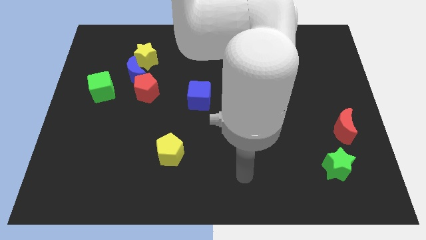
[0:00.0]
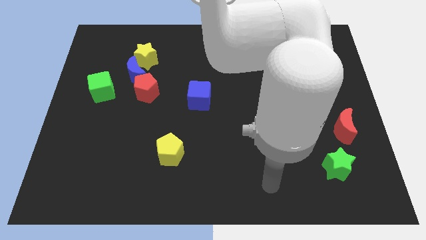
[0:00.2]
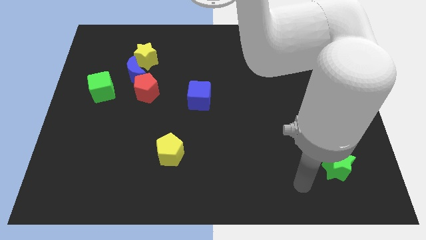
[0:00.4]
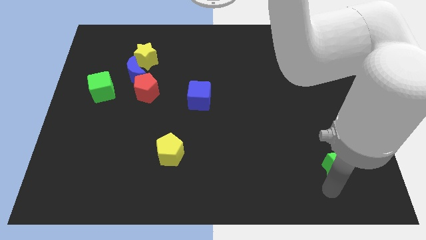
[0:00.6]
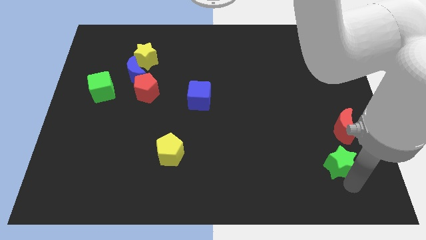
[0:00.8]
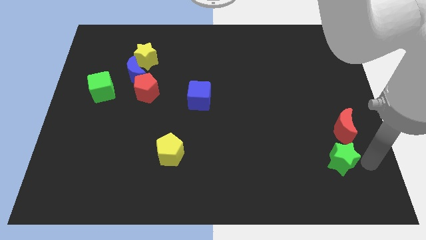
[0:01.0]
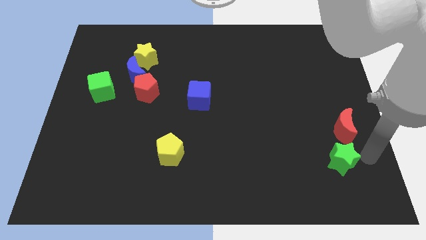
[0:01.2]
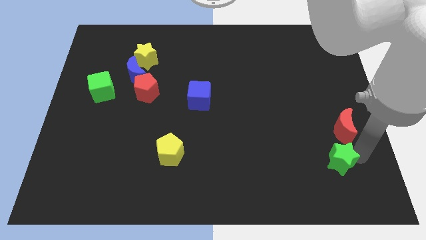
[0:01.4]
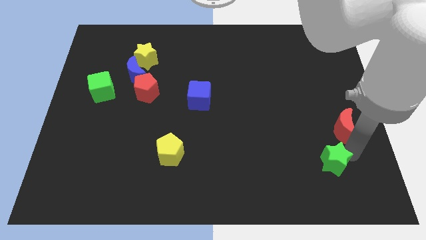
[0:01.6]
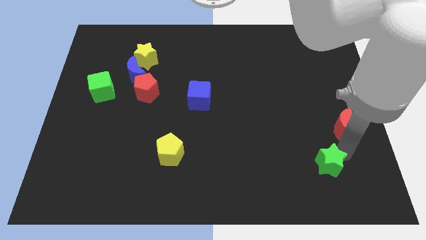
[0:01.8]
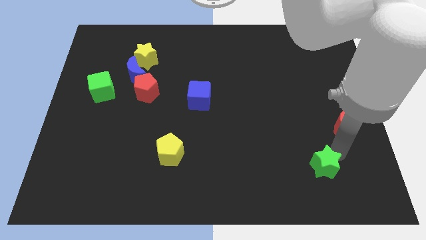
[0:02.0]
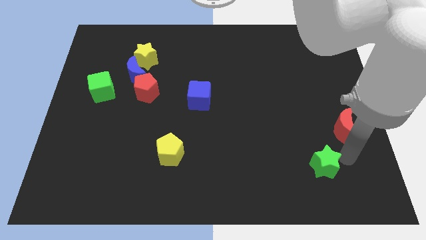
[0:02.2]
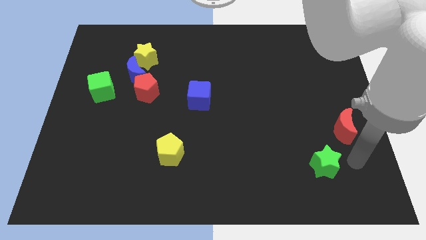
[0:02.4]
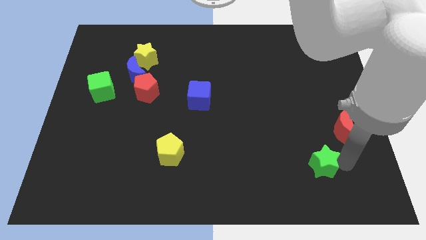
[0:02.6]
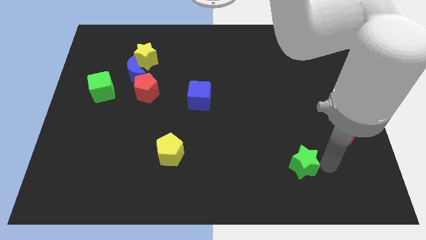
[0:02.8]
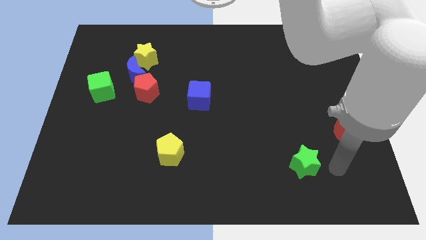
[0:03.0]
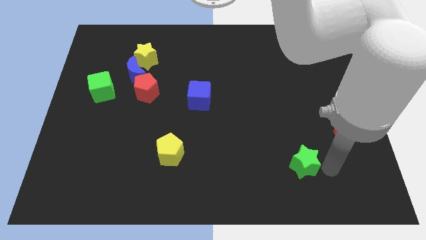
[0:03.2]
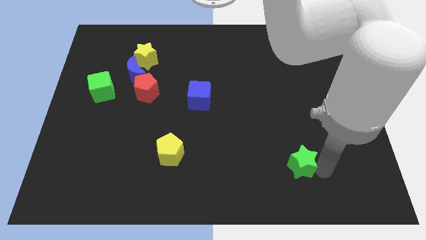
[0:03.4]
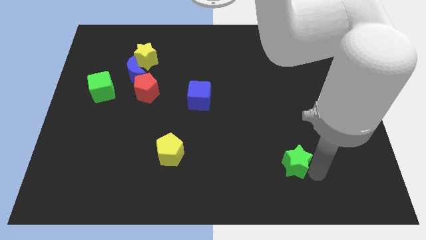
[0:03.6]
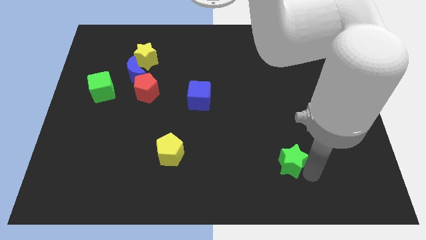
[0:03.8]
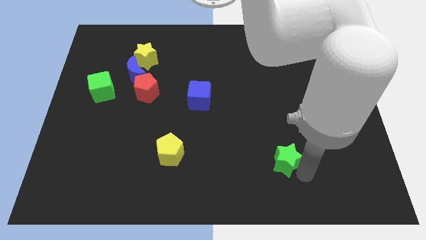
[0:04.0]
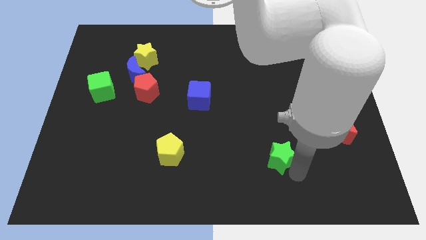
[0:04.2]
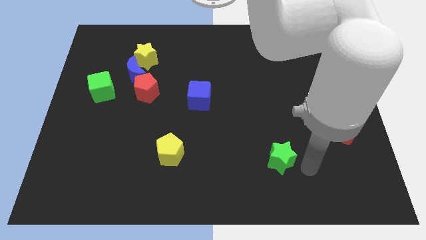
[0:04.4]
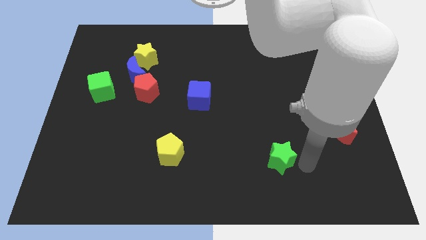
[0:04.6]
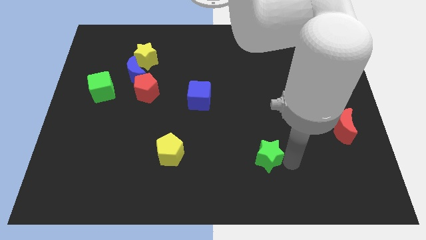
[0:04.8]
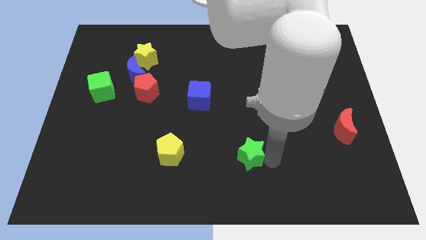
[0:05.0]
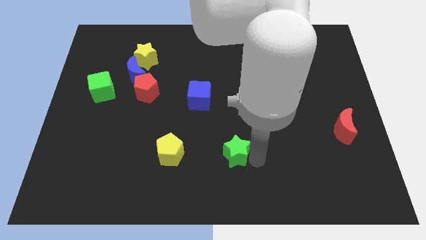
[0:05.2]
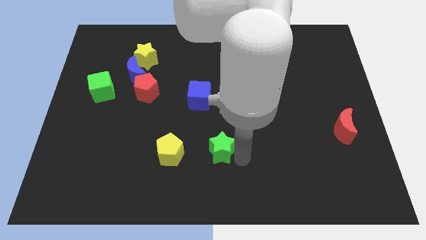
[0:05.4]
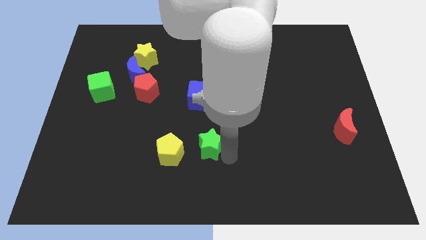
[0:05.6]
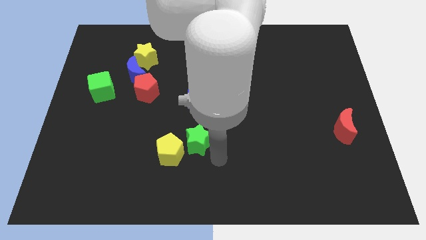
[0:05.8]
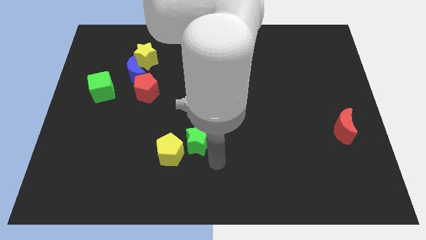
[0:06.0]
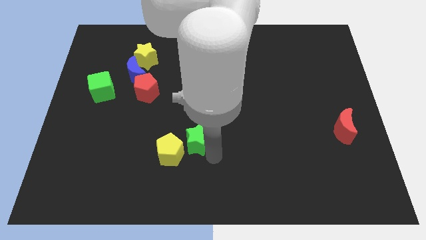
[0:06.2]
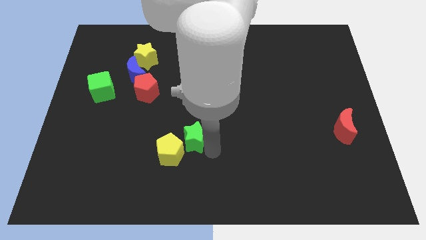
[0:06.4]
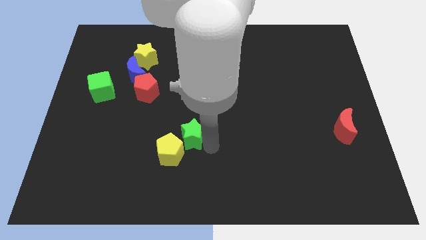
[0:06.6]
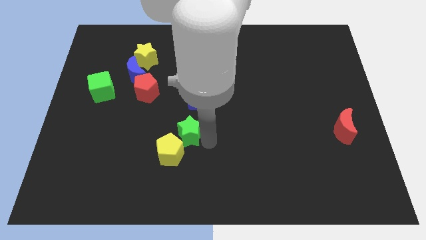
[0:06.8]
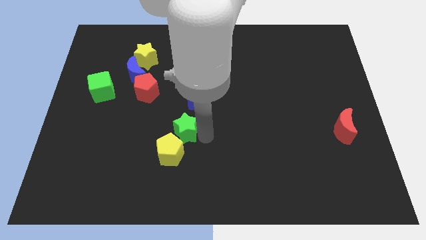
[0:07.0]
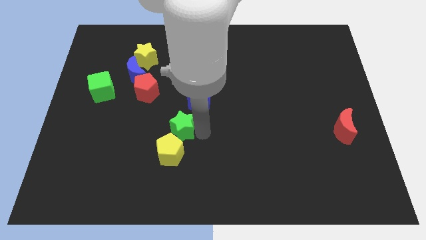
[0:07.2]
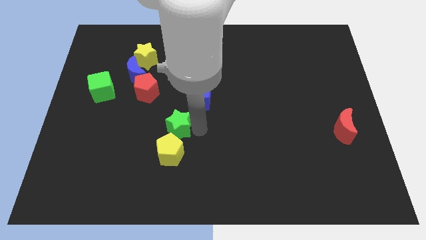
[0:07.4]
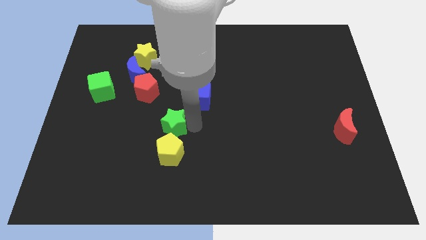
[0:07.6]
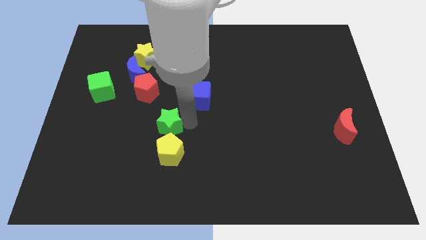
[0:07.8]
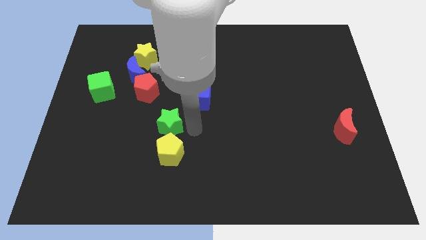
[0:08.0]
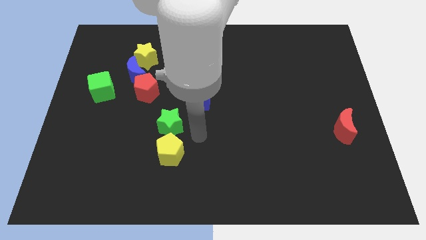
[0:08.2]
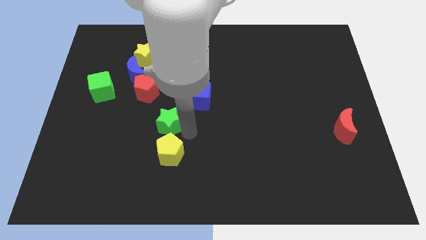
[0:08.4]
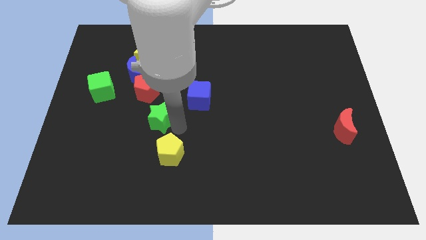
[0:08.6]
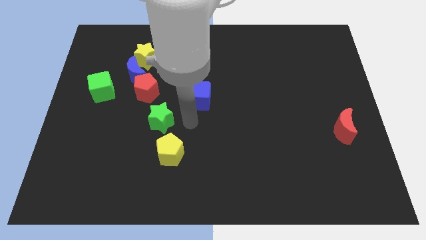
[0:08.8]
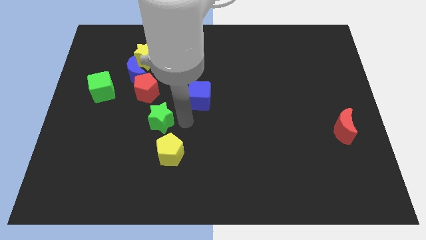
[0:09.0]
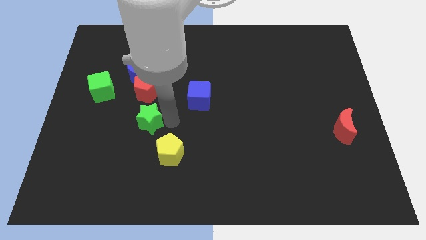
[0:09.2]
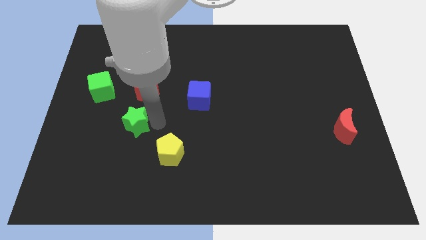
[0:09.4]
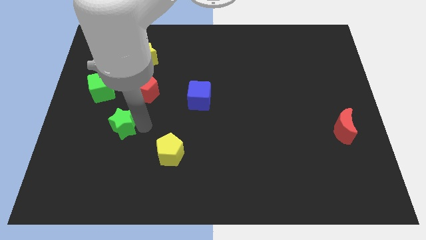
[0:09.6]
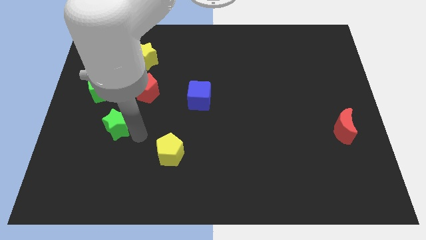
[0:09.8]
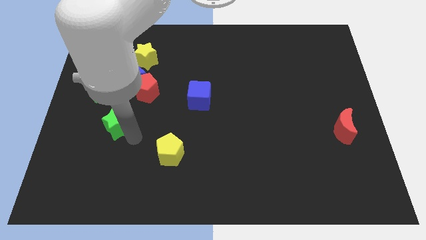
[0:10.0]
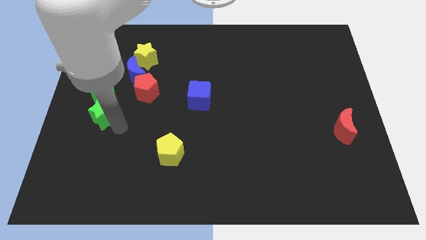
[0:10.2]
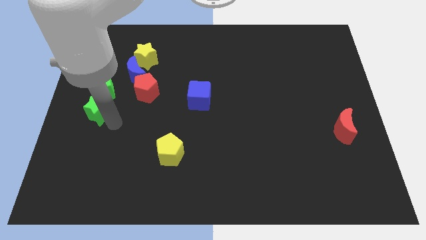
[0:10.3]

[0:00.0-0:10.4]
slide the green star to the center left

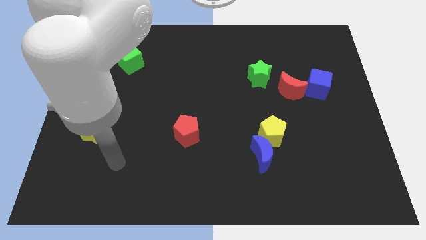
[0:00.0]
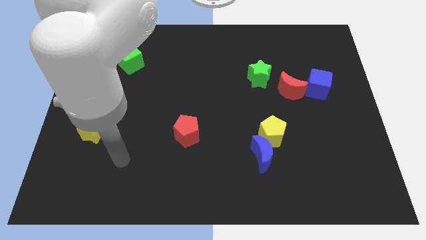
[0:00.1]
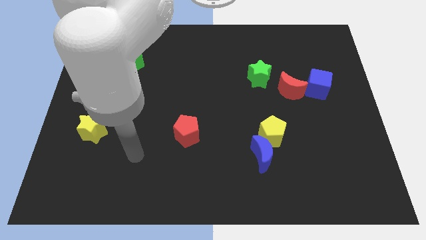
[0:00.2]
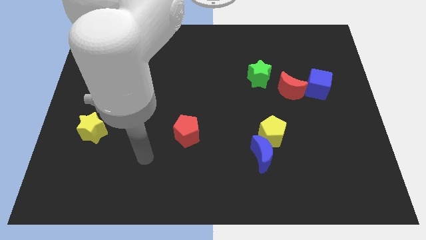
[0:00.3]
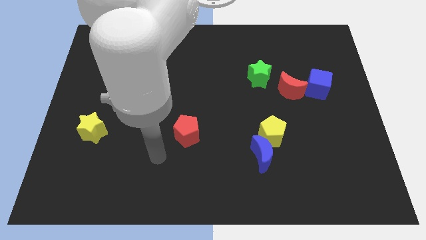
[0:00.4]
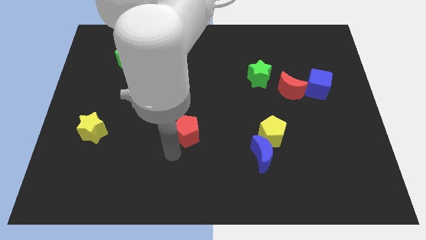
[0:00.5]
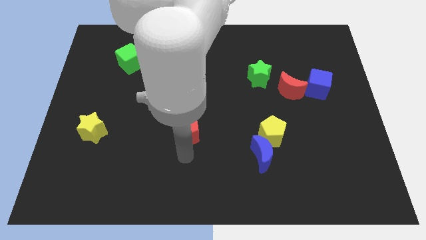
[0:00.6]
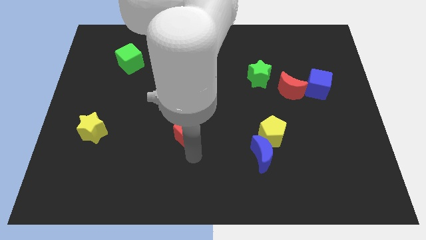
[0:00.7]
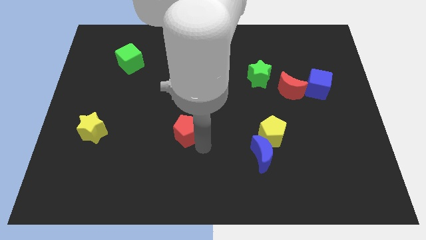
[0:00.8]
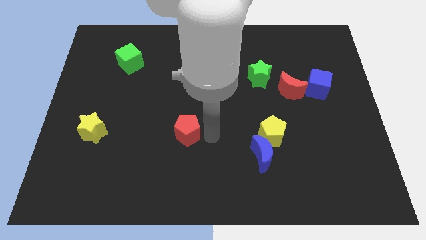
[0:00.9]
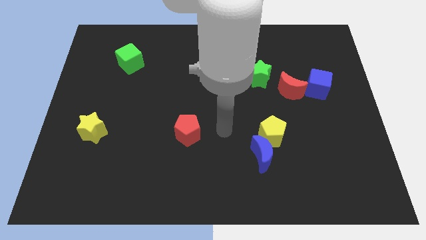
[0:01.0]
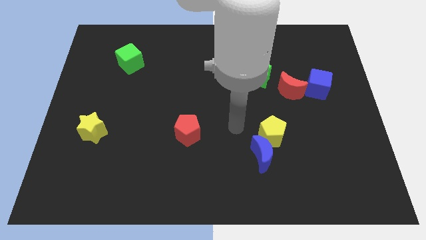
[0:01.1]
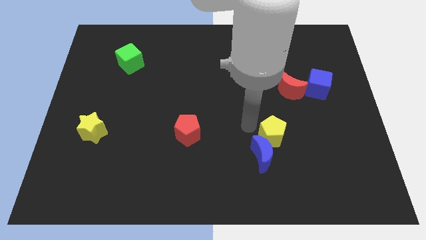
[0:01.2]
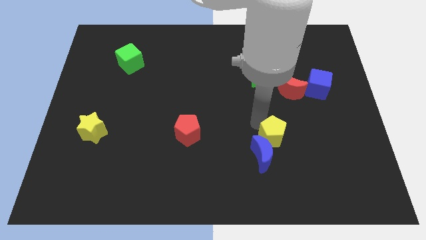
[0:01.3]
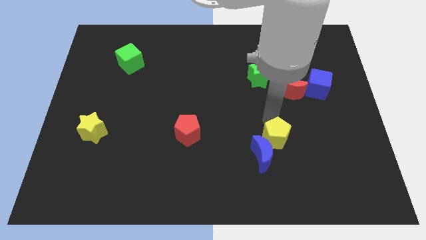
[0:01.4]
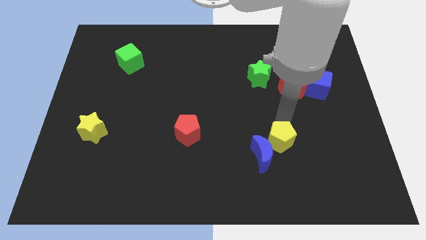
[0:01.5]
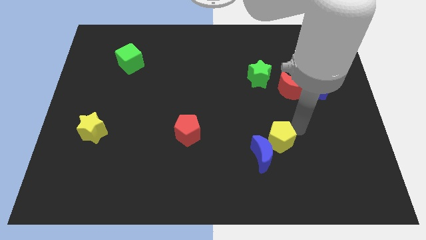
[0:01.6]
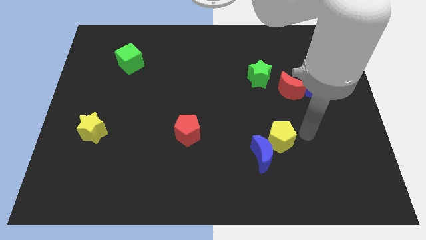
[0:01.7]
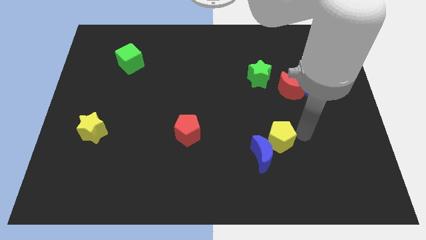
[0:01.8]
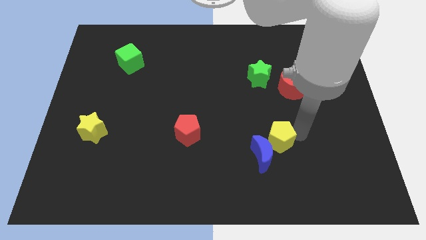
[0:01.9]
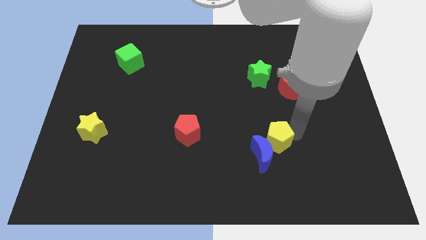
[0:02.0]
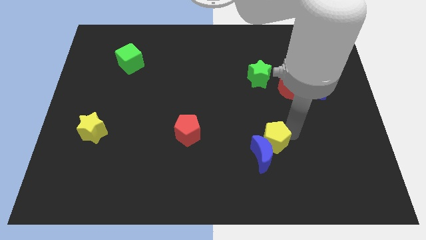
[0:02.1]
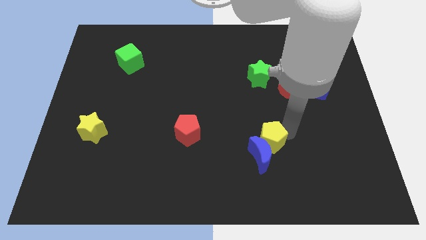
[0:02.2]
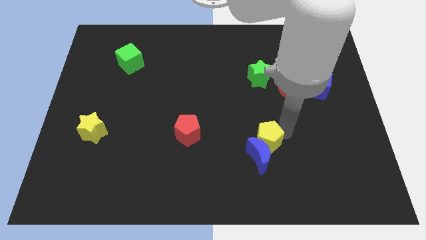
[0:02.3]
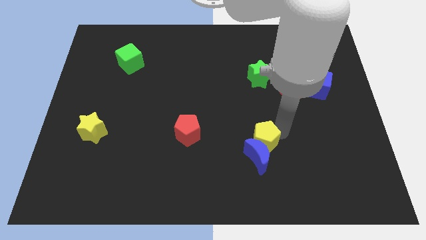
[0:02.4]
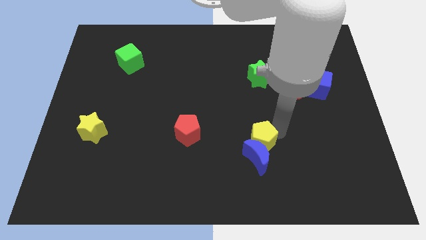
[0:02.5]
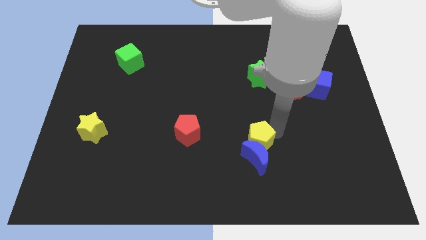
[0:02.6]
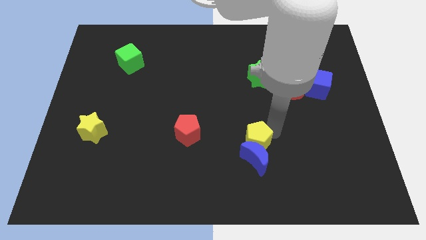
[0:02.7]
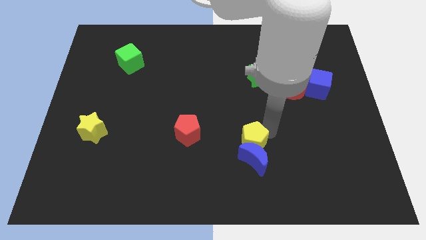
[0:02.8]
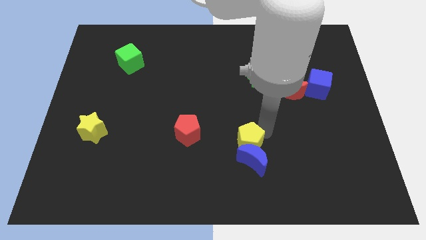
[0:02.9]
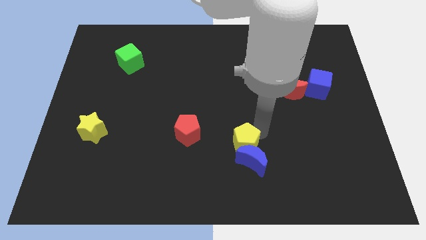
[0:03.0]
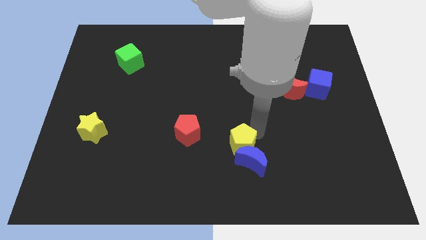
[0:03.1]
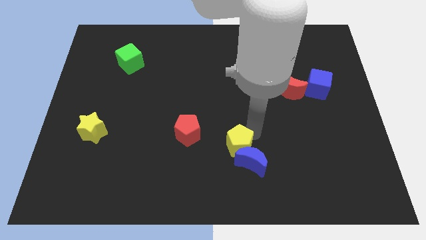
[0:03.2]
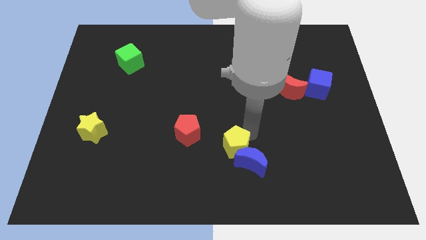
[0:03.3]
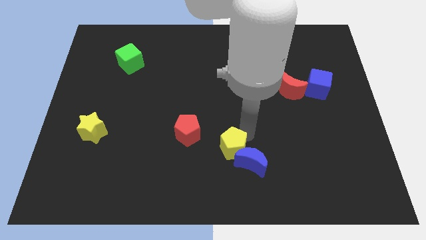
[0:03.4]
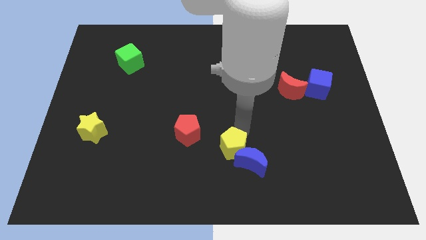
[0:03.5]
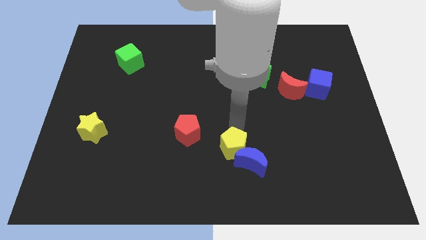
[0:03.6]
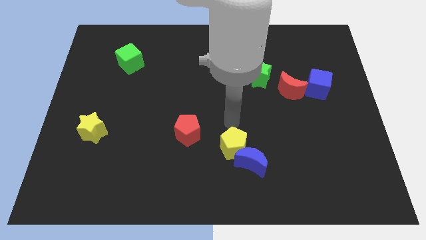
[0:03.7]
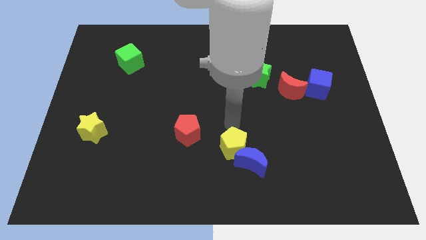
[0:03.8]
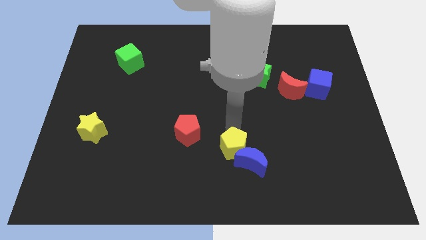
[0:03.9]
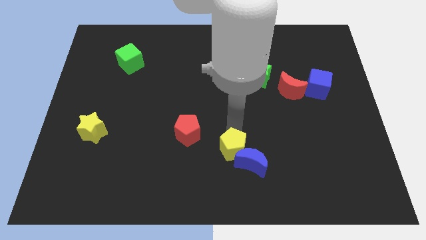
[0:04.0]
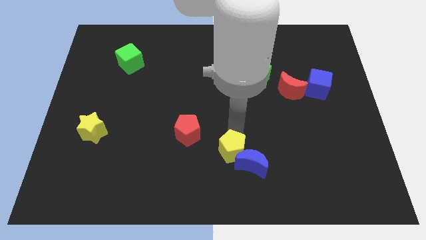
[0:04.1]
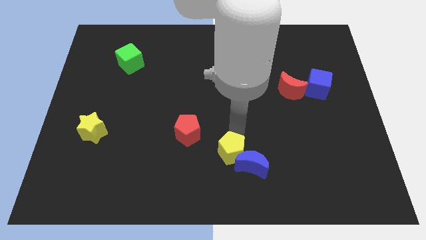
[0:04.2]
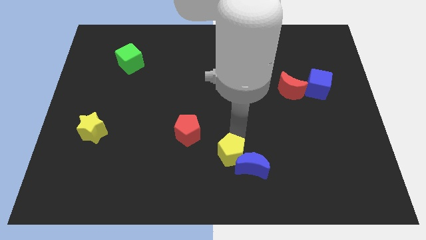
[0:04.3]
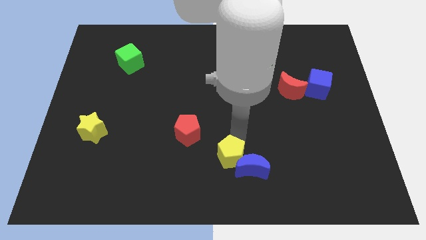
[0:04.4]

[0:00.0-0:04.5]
move the yellow pentagon to the bottom
